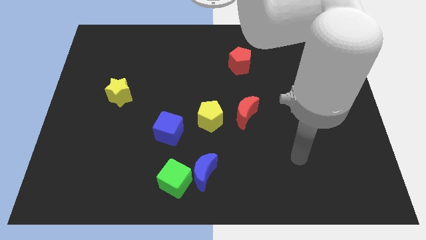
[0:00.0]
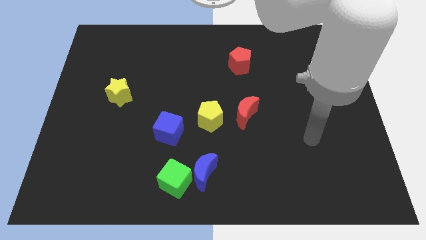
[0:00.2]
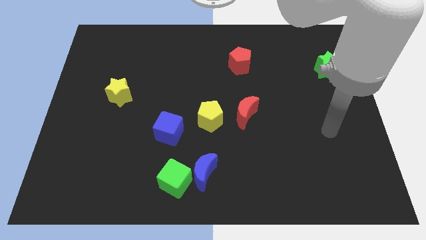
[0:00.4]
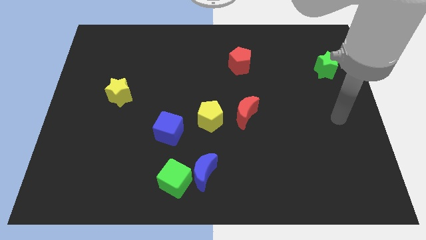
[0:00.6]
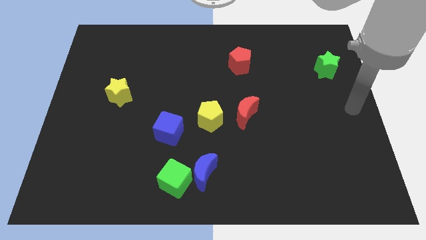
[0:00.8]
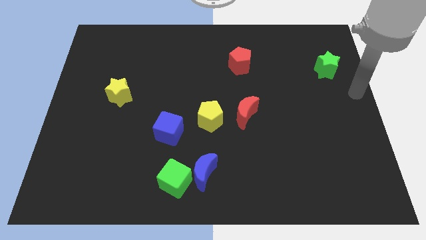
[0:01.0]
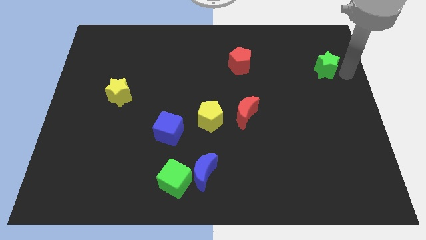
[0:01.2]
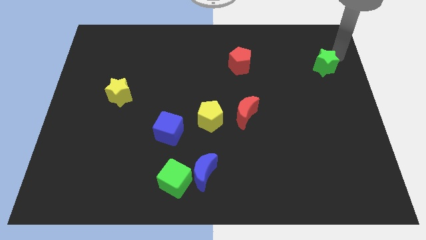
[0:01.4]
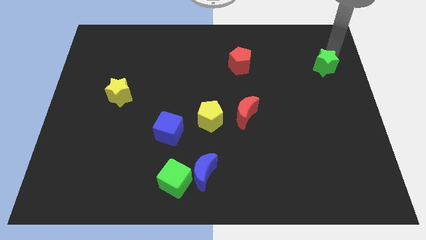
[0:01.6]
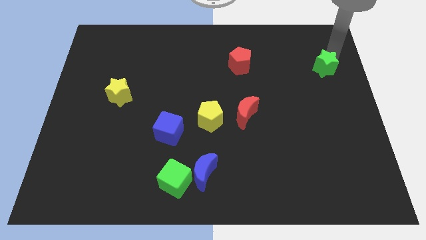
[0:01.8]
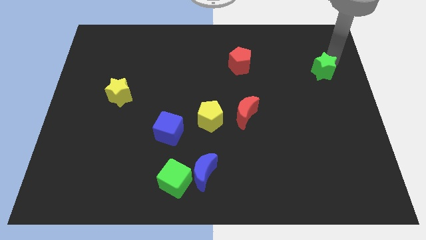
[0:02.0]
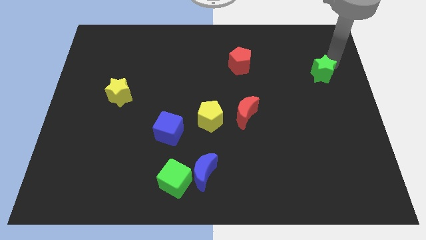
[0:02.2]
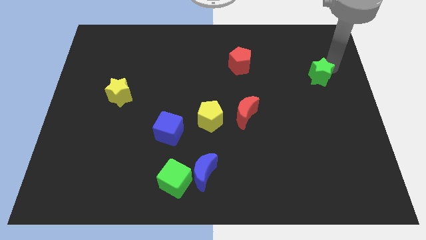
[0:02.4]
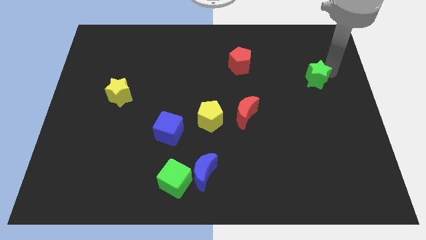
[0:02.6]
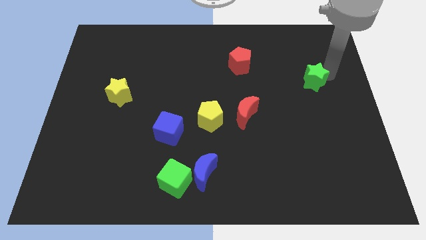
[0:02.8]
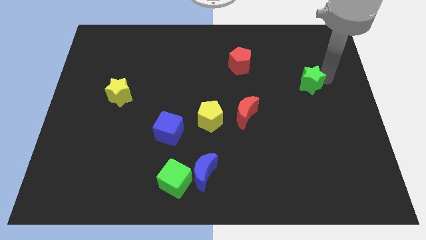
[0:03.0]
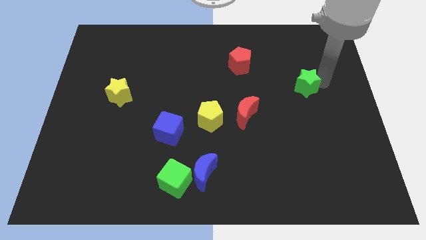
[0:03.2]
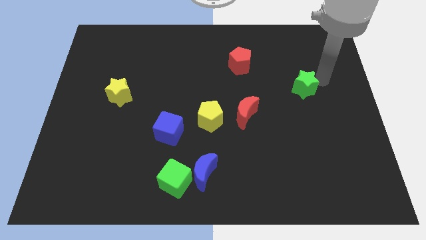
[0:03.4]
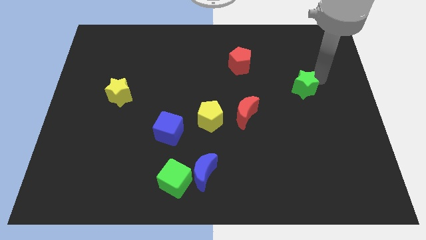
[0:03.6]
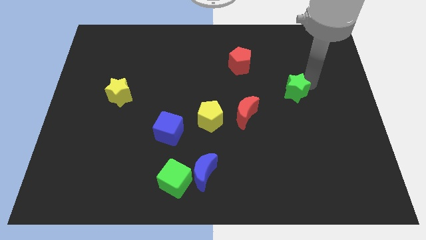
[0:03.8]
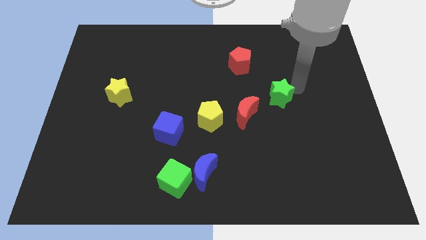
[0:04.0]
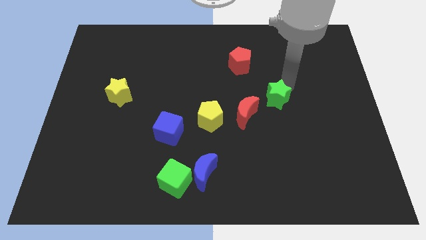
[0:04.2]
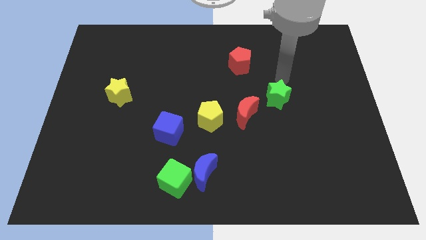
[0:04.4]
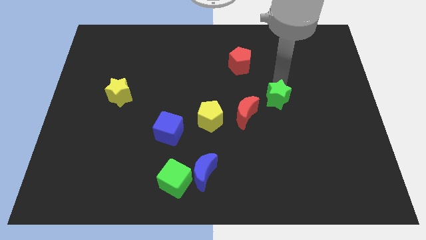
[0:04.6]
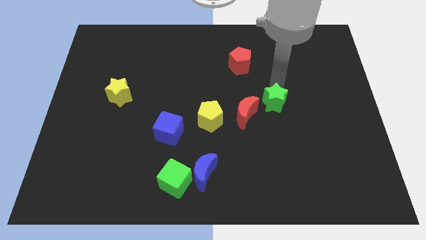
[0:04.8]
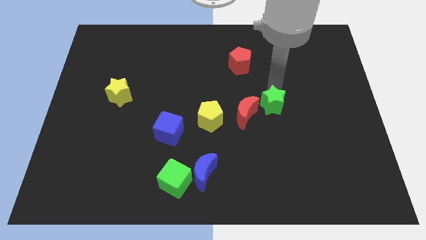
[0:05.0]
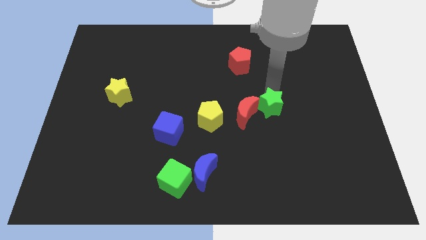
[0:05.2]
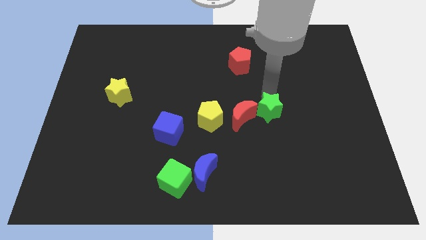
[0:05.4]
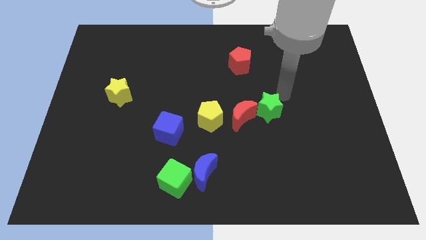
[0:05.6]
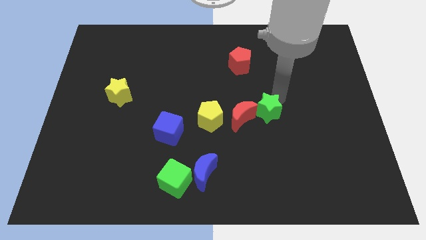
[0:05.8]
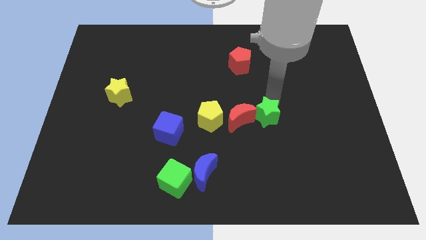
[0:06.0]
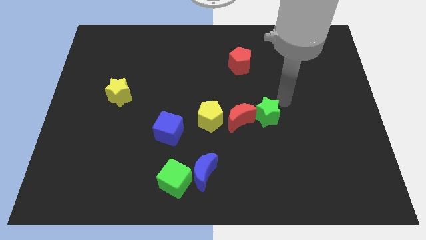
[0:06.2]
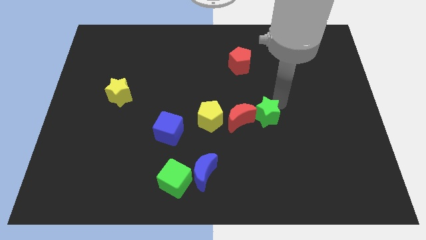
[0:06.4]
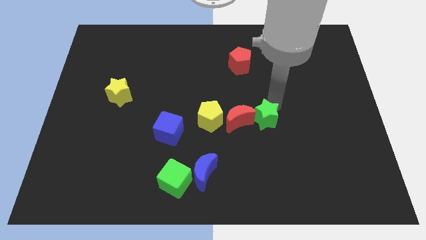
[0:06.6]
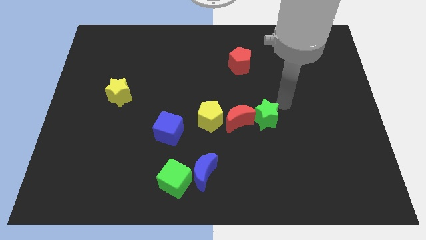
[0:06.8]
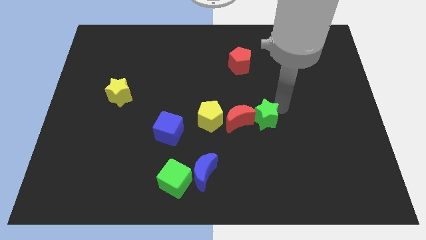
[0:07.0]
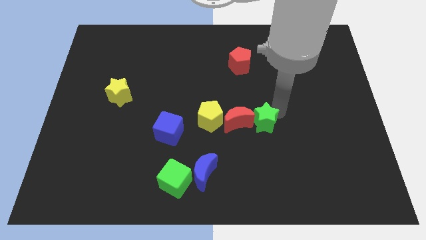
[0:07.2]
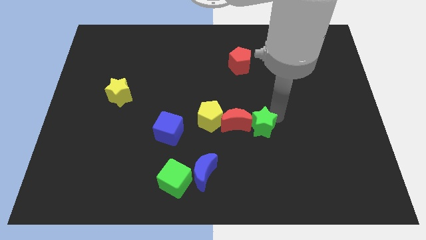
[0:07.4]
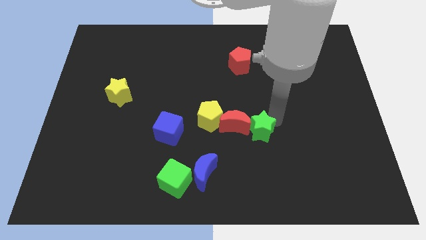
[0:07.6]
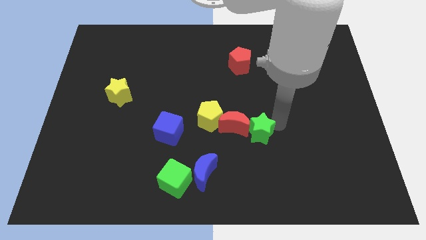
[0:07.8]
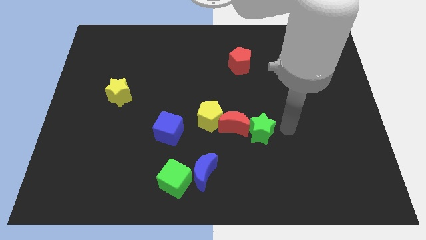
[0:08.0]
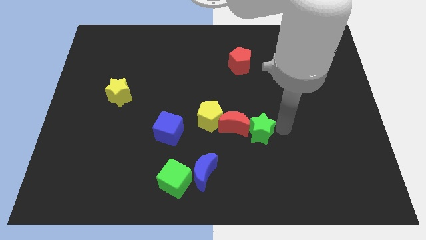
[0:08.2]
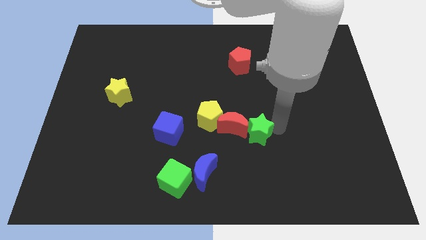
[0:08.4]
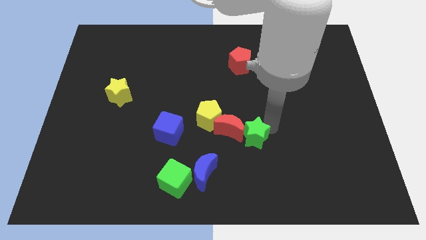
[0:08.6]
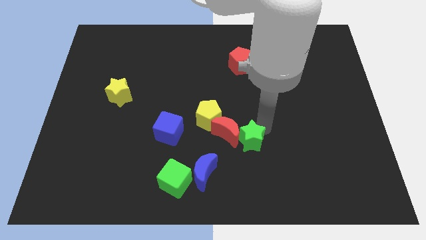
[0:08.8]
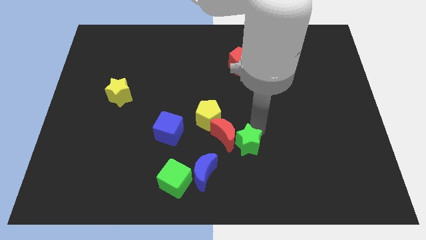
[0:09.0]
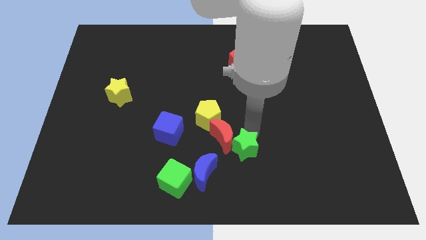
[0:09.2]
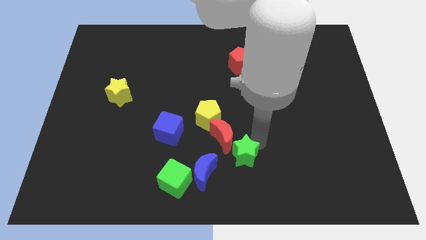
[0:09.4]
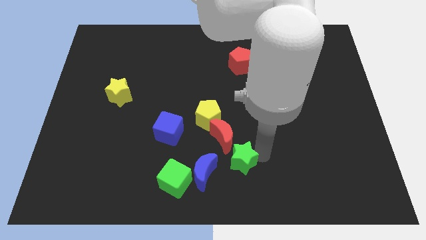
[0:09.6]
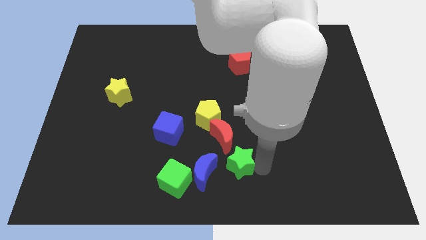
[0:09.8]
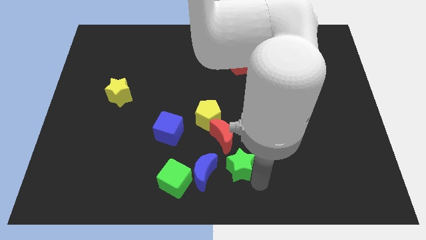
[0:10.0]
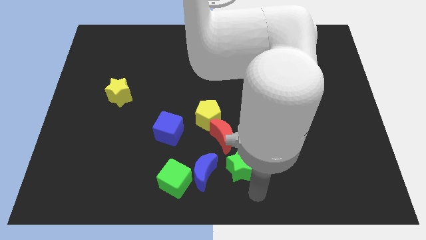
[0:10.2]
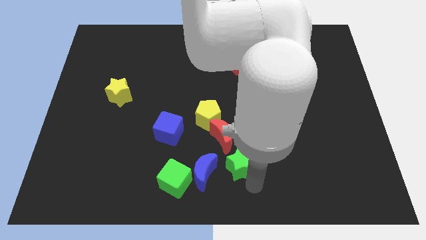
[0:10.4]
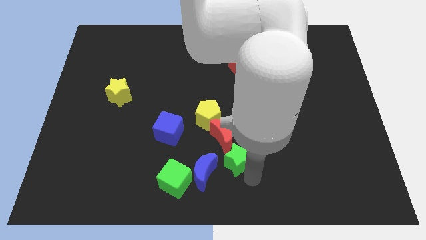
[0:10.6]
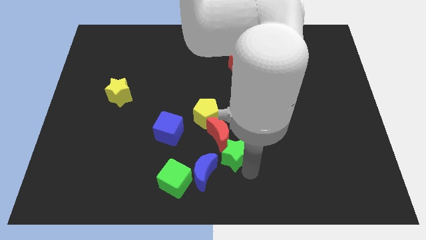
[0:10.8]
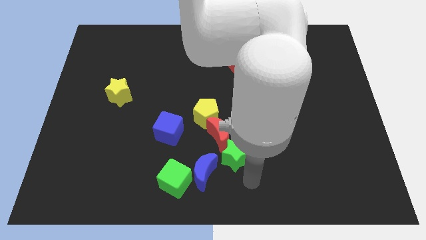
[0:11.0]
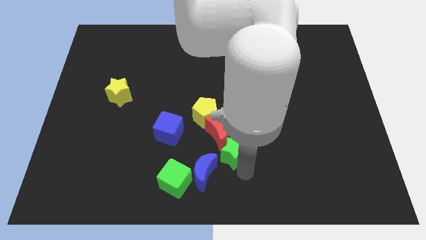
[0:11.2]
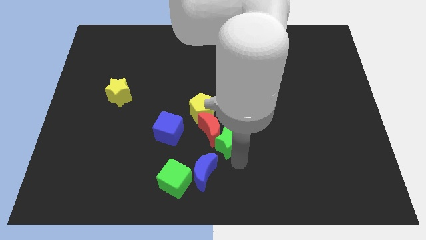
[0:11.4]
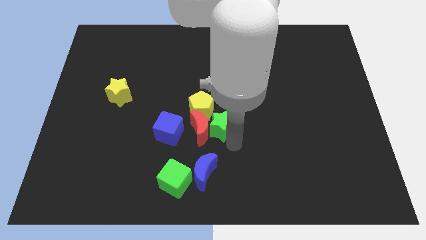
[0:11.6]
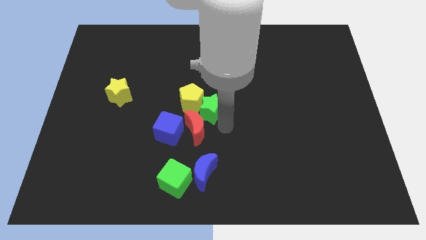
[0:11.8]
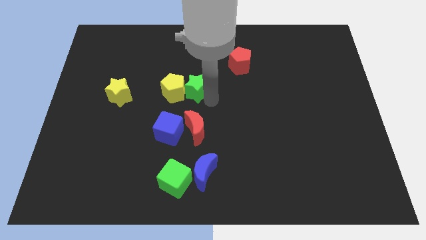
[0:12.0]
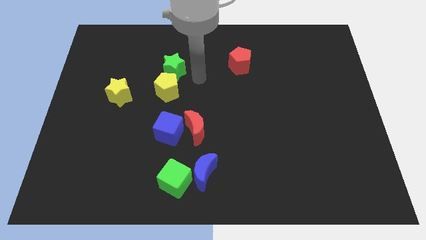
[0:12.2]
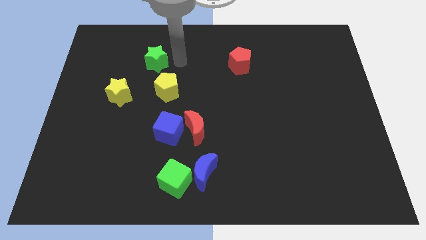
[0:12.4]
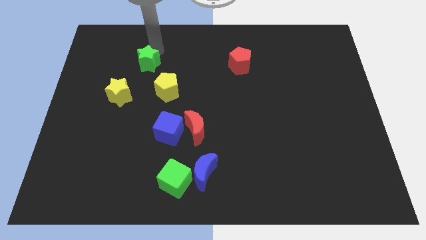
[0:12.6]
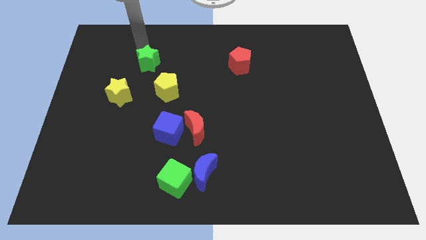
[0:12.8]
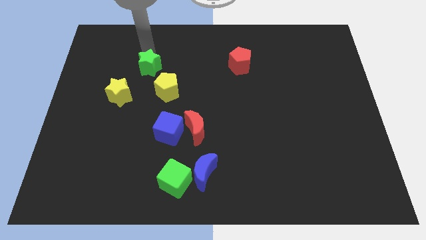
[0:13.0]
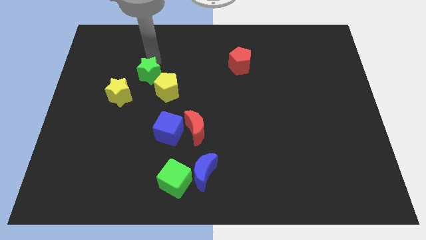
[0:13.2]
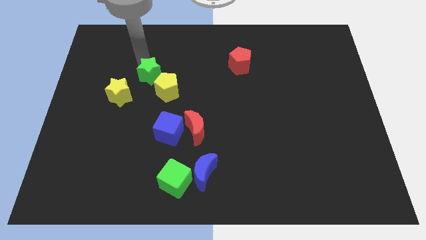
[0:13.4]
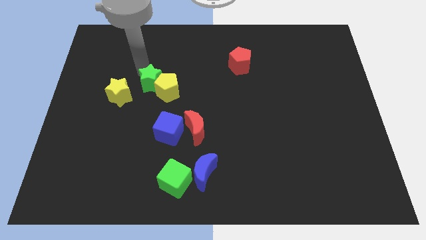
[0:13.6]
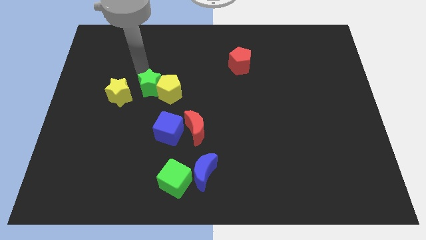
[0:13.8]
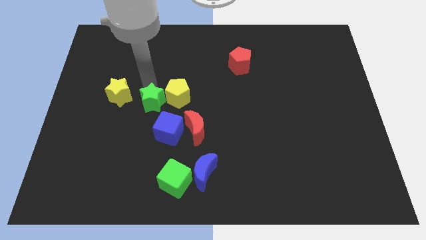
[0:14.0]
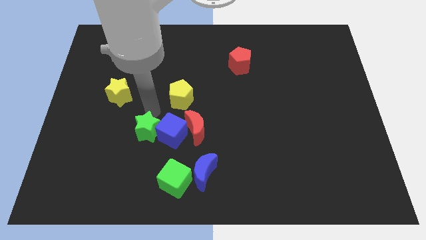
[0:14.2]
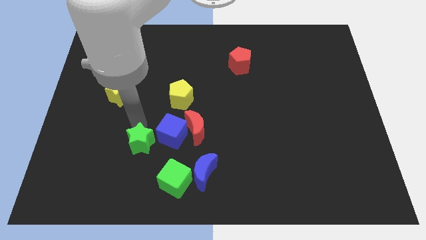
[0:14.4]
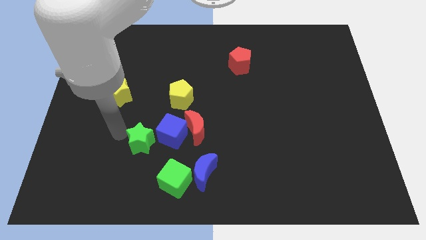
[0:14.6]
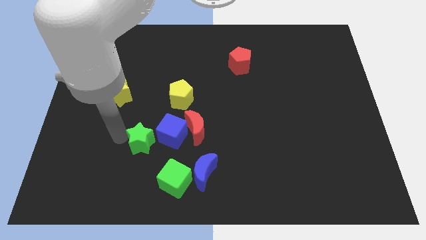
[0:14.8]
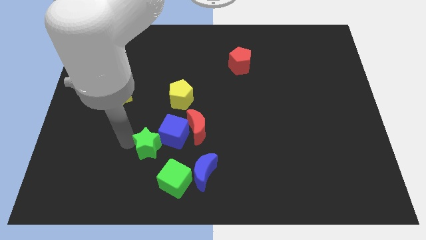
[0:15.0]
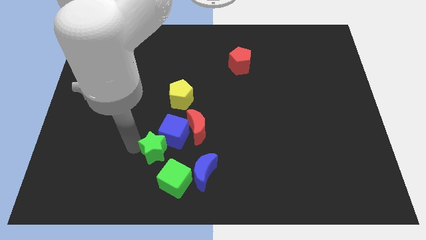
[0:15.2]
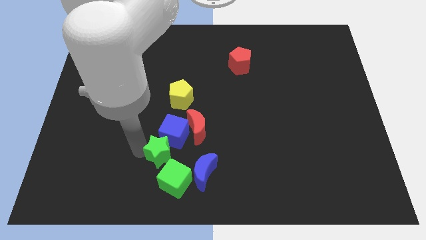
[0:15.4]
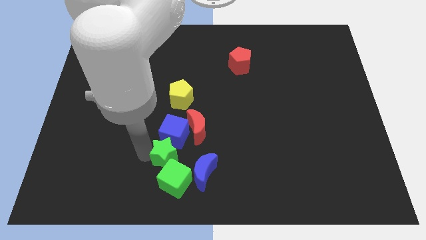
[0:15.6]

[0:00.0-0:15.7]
push the green star towards the green cube
